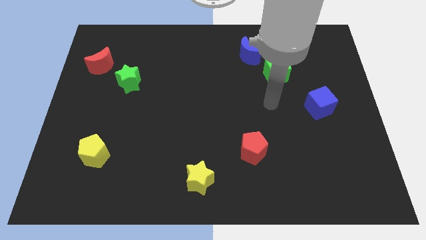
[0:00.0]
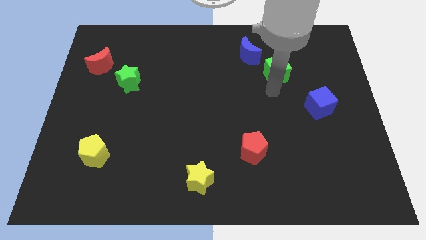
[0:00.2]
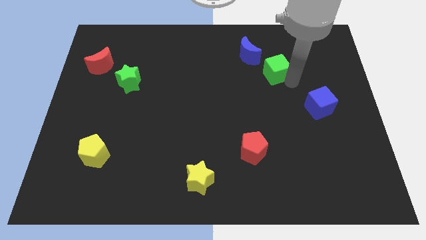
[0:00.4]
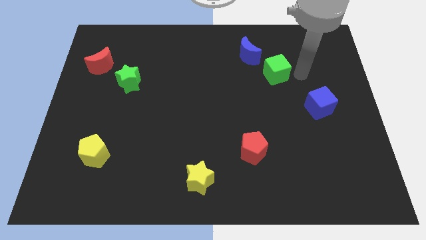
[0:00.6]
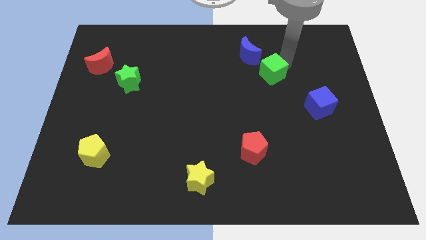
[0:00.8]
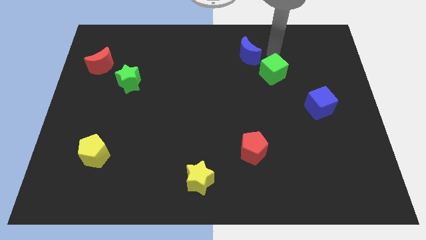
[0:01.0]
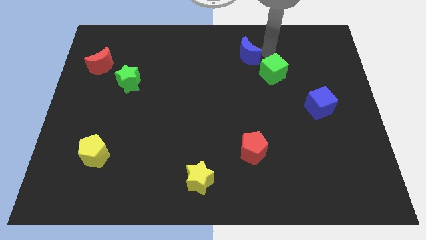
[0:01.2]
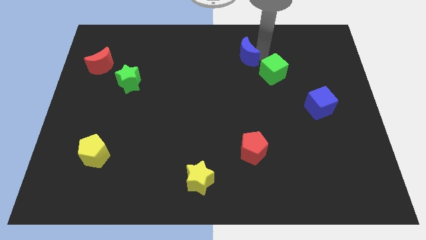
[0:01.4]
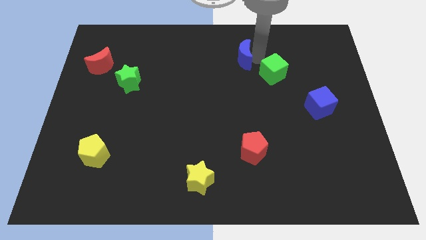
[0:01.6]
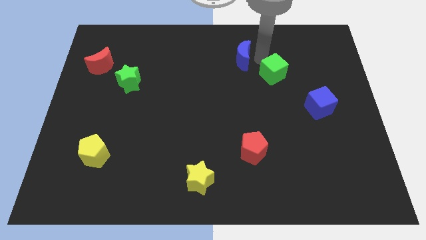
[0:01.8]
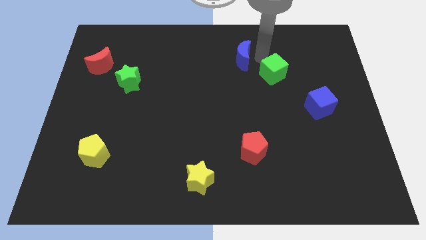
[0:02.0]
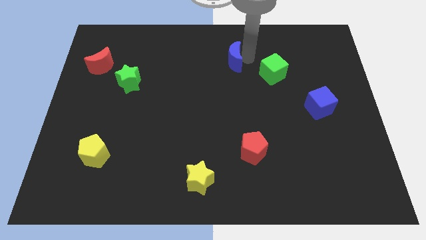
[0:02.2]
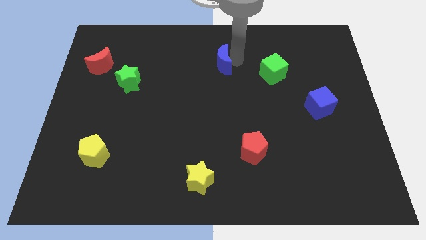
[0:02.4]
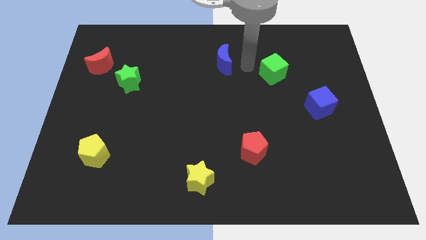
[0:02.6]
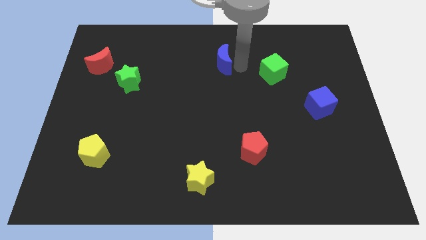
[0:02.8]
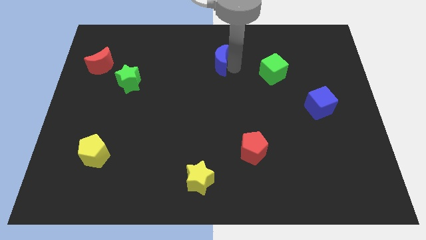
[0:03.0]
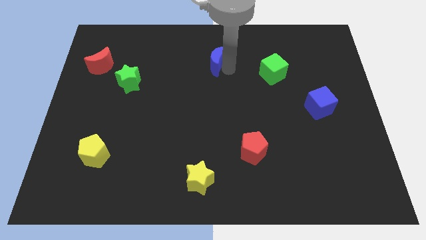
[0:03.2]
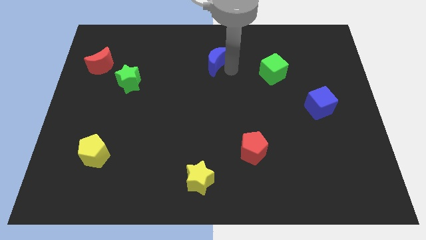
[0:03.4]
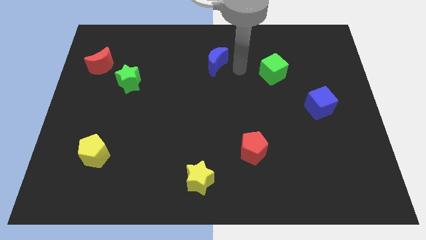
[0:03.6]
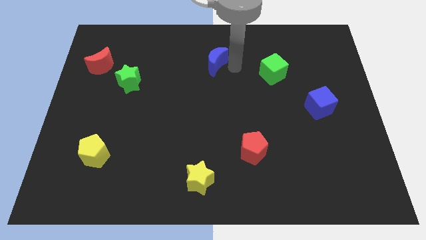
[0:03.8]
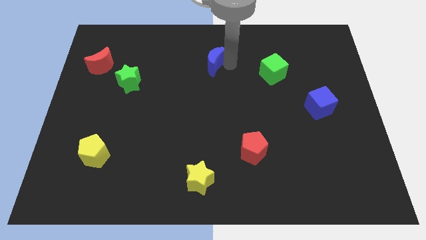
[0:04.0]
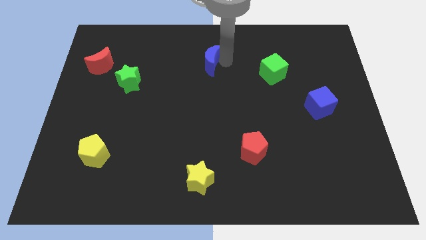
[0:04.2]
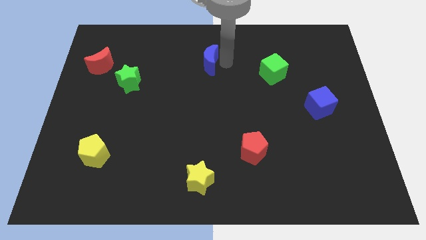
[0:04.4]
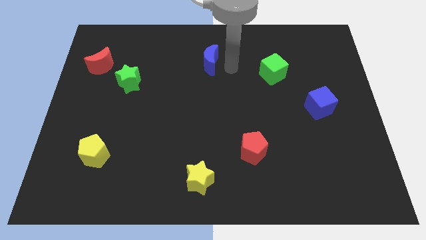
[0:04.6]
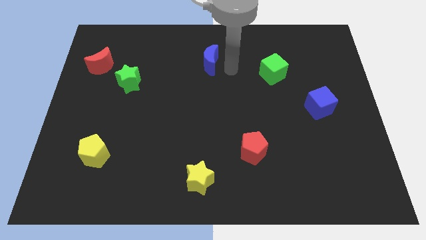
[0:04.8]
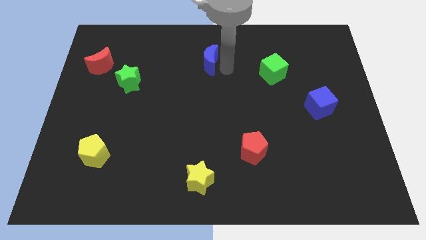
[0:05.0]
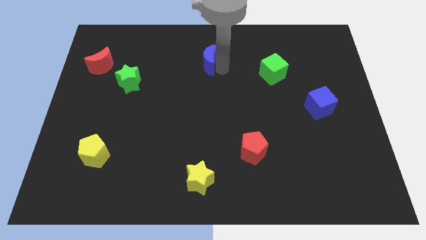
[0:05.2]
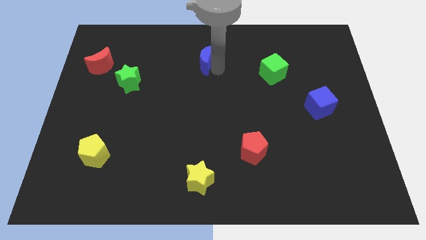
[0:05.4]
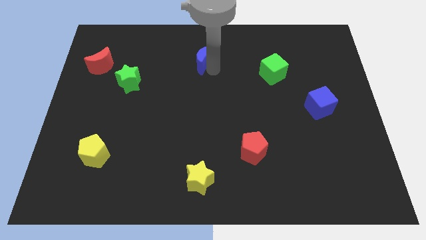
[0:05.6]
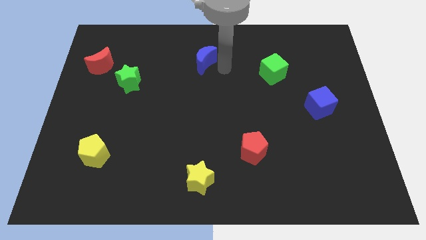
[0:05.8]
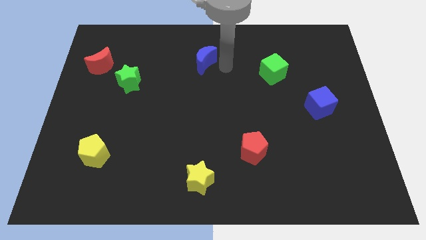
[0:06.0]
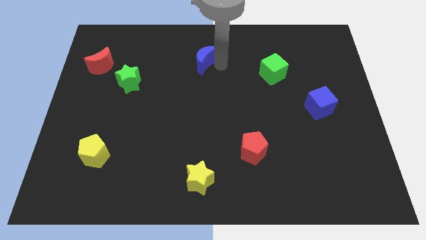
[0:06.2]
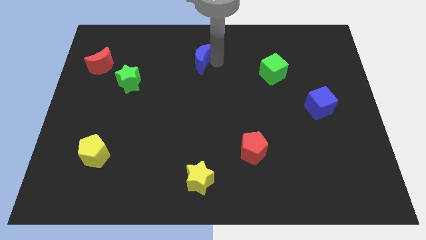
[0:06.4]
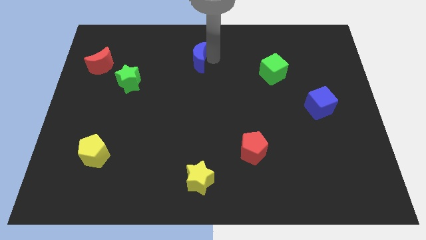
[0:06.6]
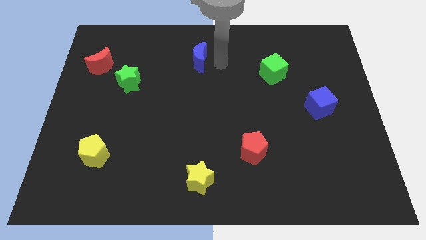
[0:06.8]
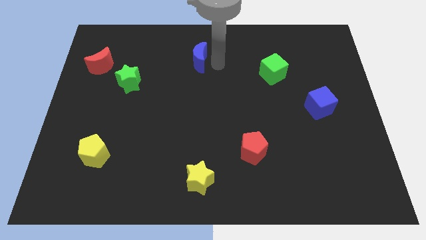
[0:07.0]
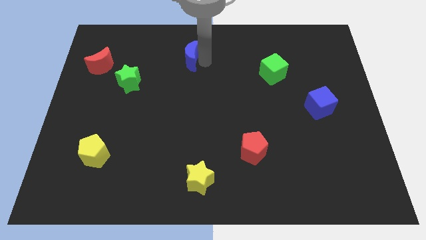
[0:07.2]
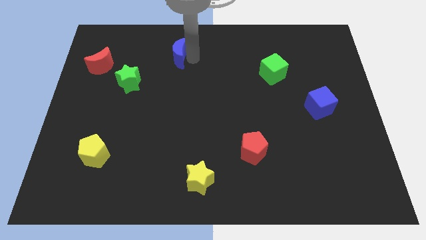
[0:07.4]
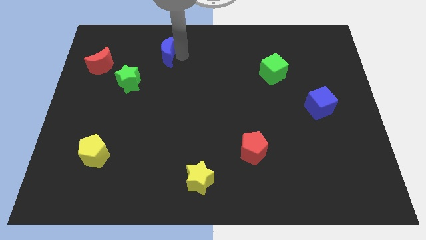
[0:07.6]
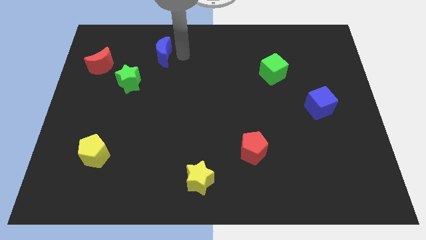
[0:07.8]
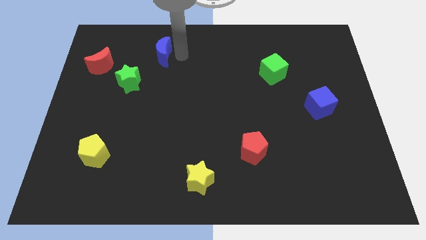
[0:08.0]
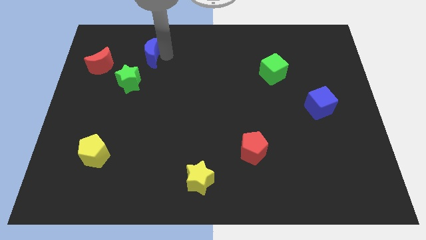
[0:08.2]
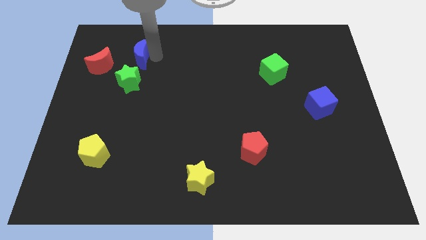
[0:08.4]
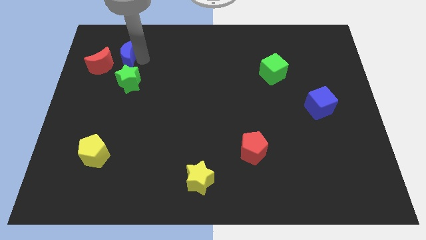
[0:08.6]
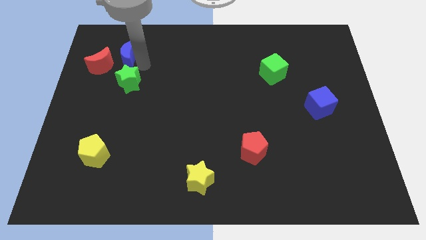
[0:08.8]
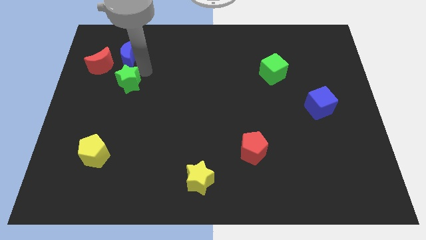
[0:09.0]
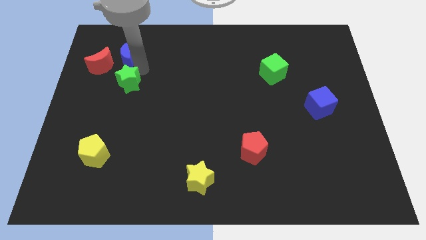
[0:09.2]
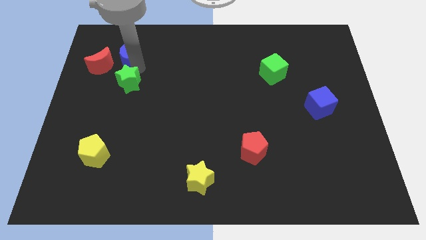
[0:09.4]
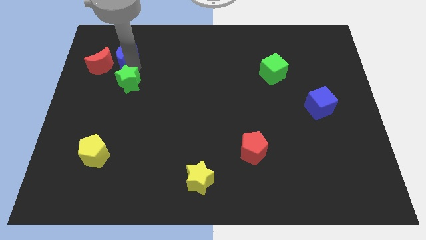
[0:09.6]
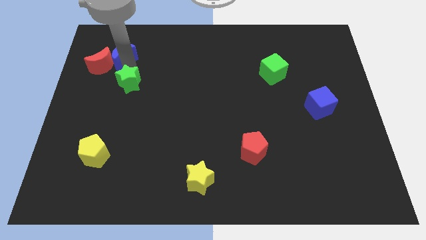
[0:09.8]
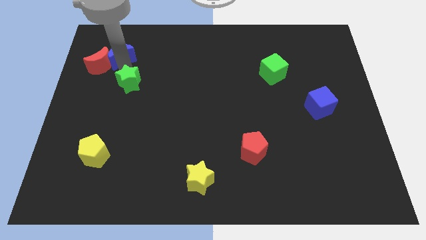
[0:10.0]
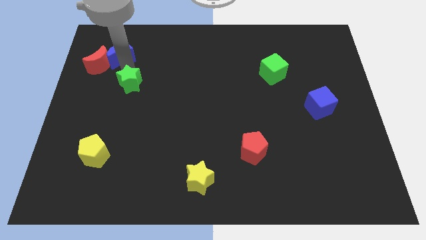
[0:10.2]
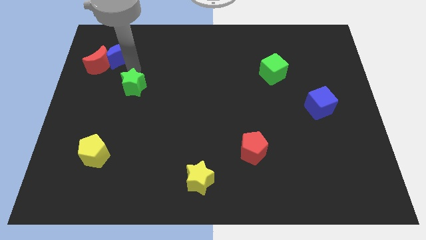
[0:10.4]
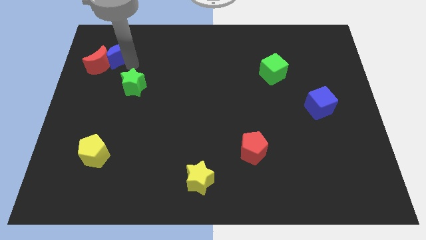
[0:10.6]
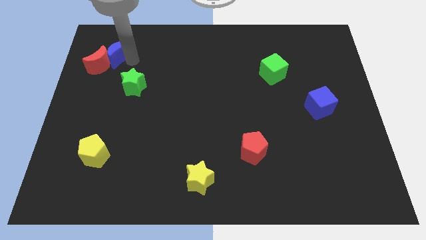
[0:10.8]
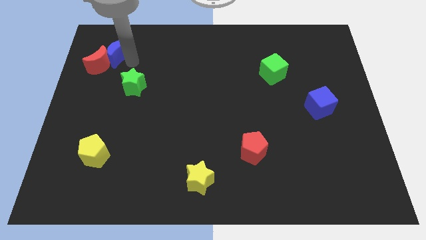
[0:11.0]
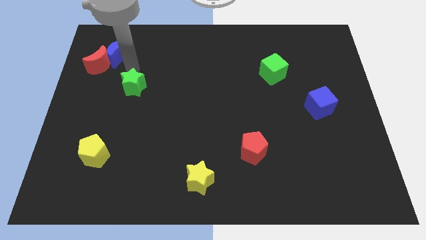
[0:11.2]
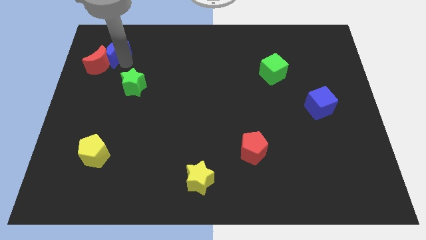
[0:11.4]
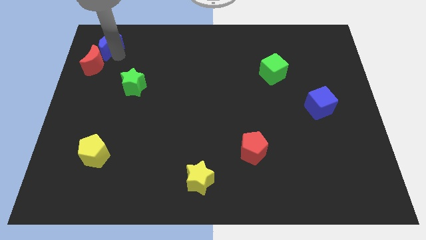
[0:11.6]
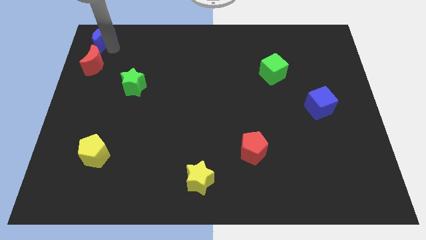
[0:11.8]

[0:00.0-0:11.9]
move the blue moon to the top left corner
